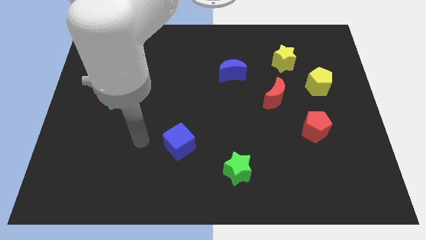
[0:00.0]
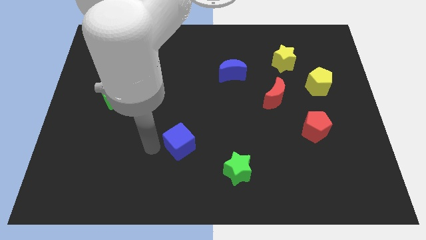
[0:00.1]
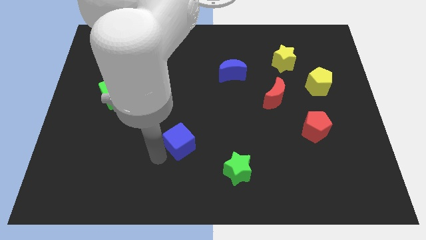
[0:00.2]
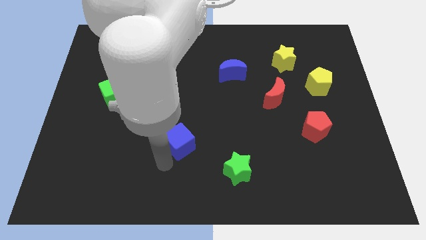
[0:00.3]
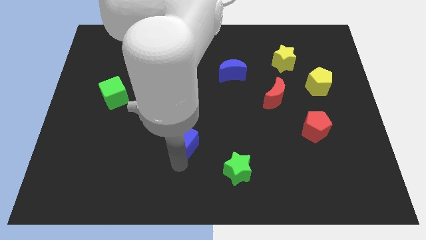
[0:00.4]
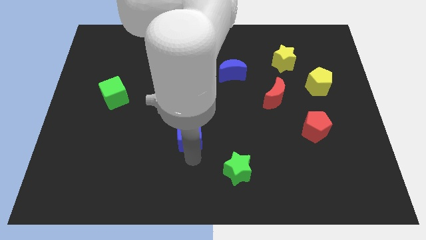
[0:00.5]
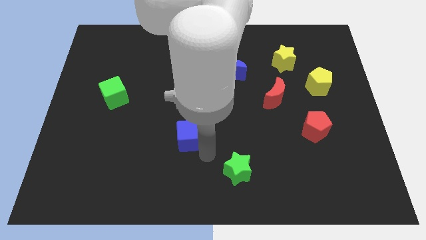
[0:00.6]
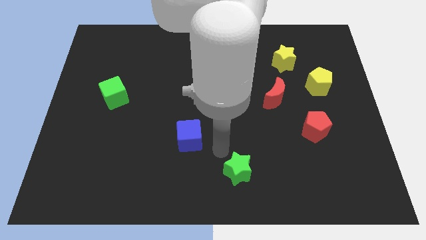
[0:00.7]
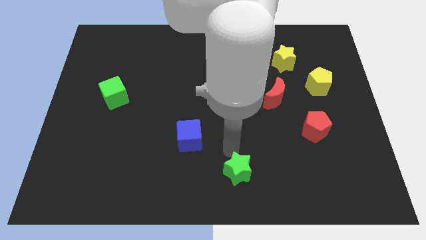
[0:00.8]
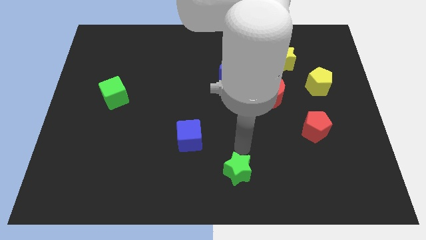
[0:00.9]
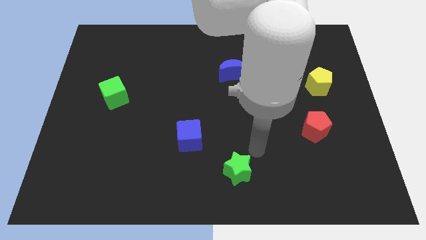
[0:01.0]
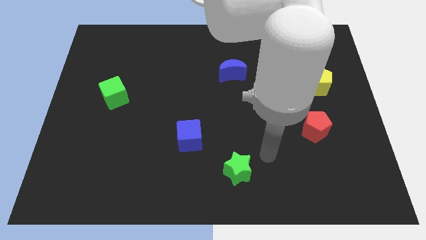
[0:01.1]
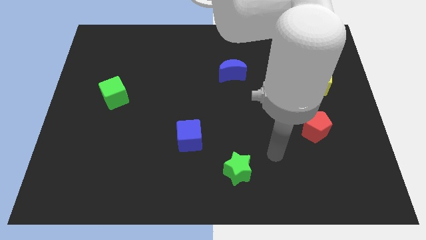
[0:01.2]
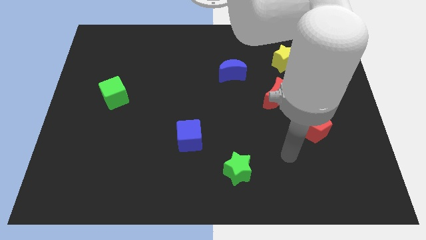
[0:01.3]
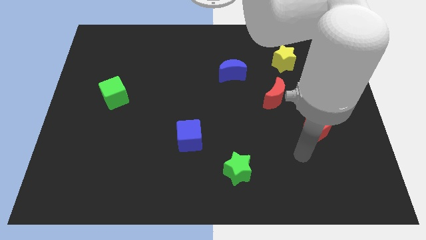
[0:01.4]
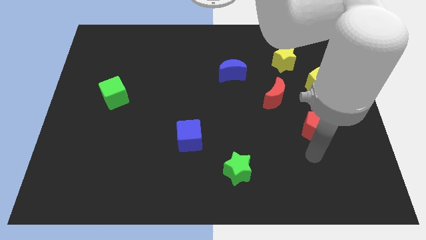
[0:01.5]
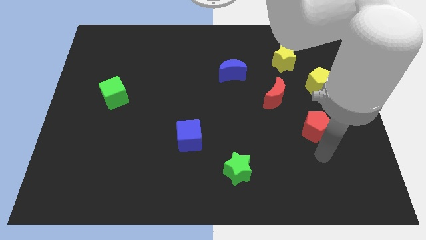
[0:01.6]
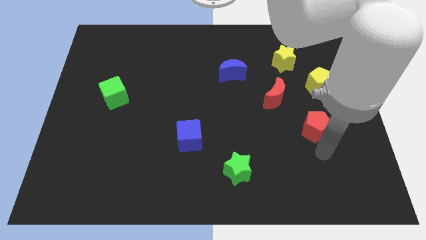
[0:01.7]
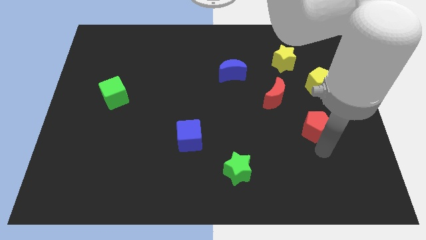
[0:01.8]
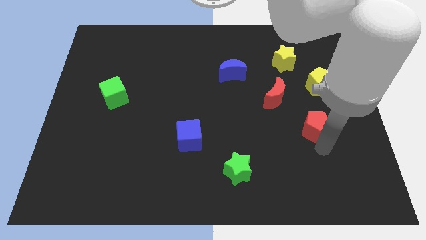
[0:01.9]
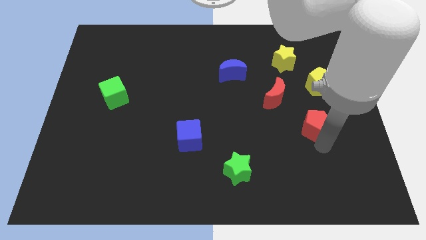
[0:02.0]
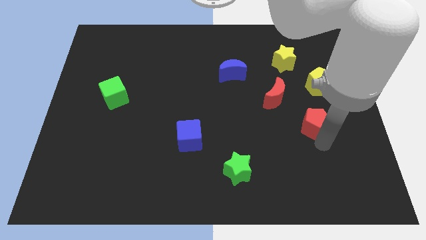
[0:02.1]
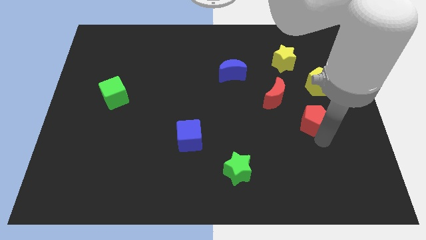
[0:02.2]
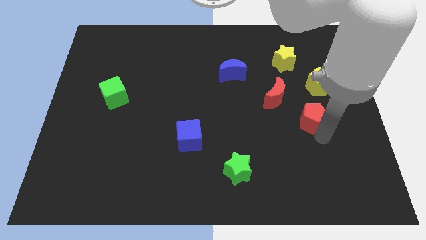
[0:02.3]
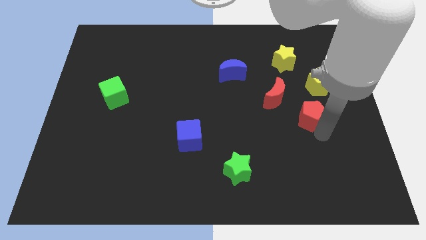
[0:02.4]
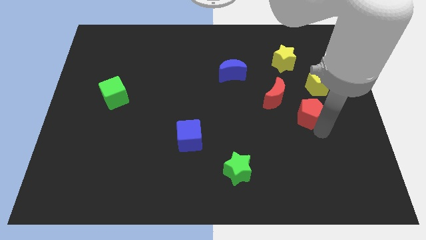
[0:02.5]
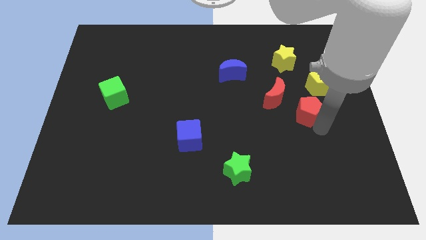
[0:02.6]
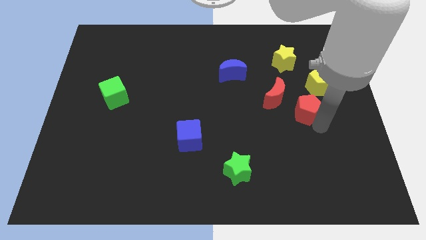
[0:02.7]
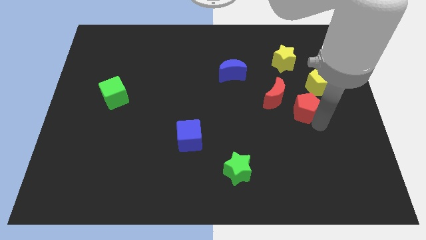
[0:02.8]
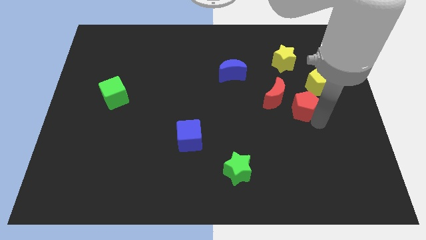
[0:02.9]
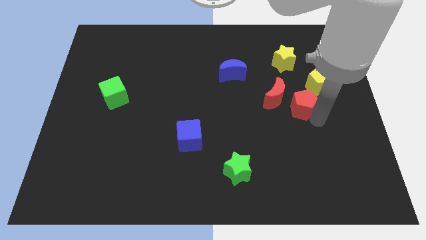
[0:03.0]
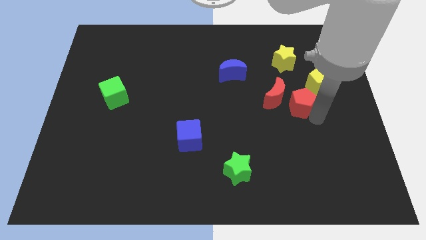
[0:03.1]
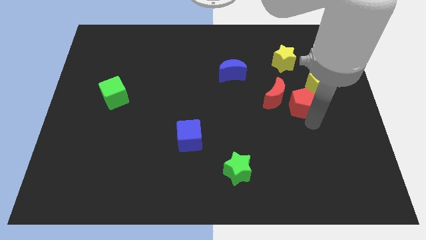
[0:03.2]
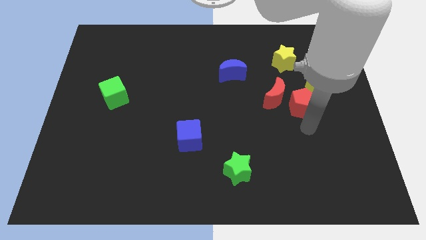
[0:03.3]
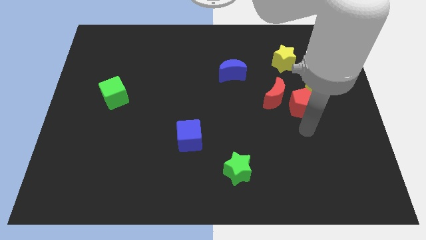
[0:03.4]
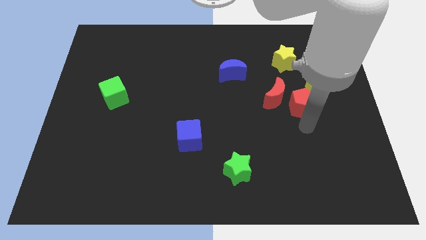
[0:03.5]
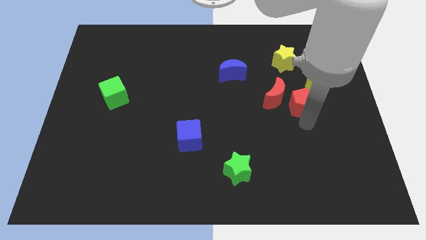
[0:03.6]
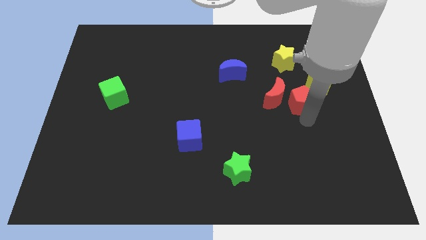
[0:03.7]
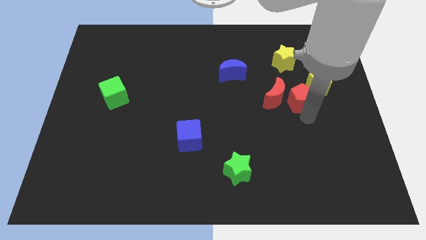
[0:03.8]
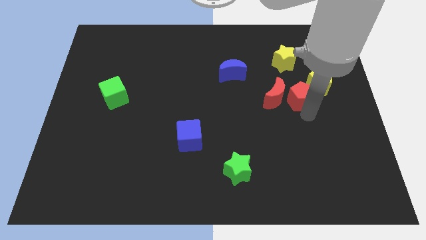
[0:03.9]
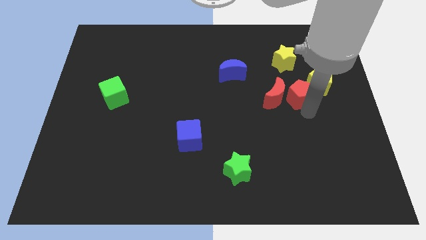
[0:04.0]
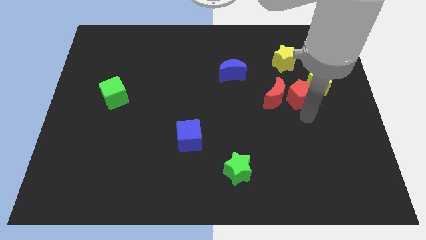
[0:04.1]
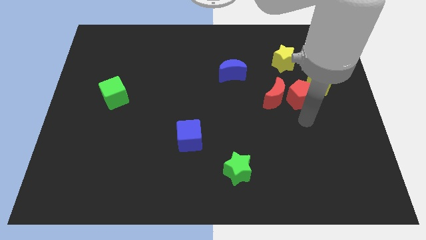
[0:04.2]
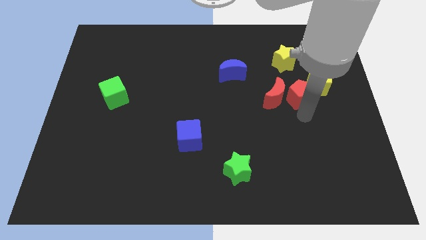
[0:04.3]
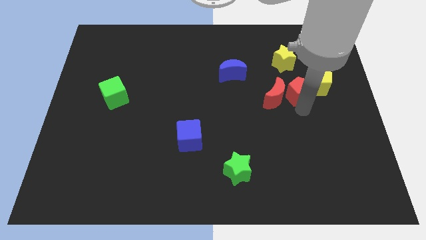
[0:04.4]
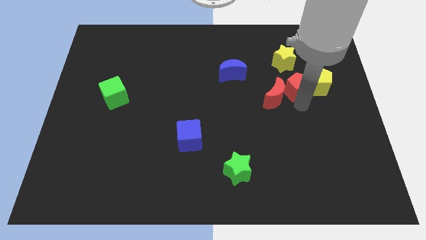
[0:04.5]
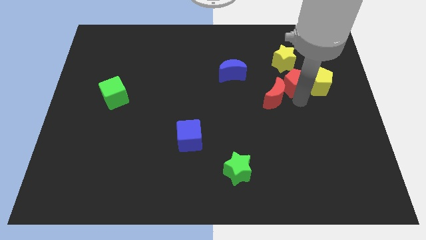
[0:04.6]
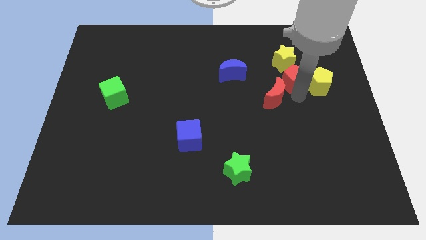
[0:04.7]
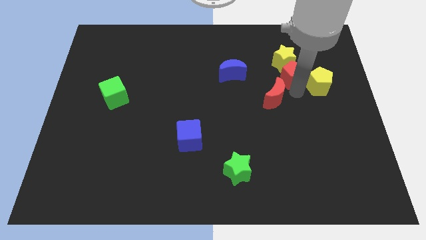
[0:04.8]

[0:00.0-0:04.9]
slide the red pentagon towards the yellow star

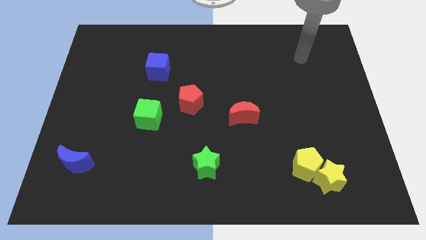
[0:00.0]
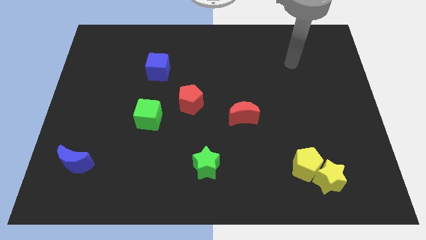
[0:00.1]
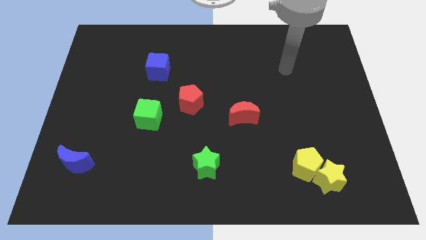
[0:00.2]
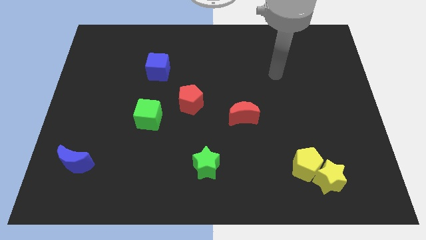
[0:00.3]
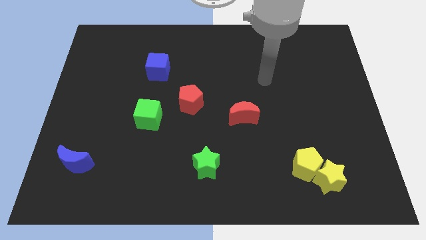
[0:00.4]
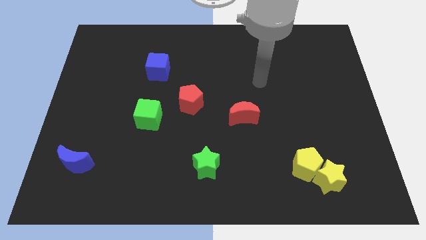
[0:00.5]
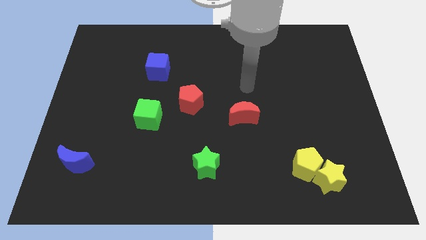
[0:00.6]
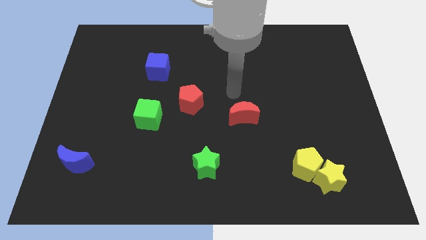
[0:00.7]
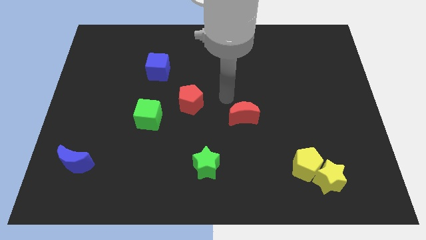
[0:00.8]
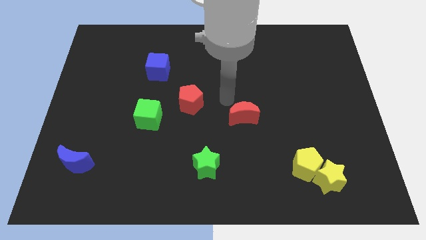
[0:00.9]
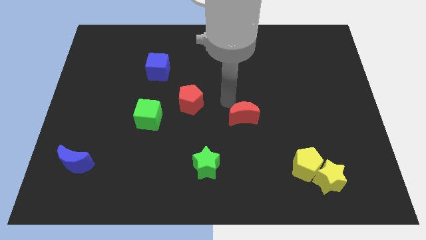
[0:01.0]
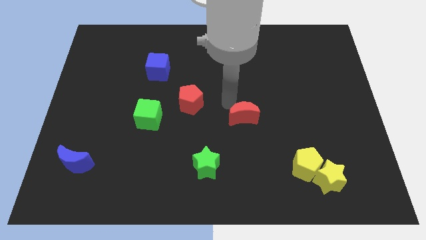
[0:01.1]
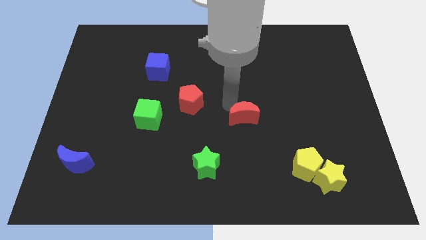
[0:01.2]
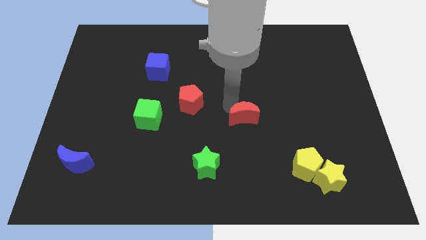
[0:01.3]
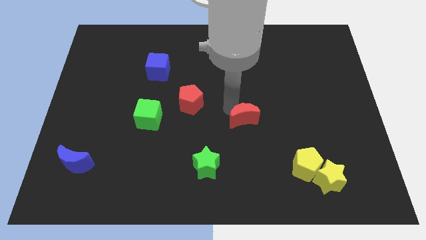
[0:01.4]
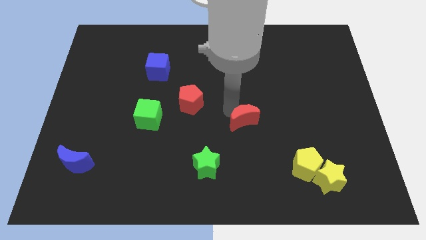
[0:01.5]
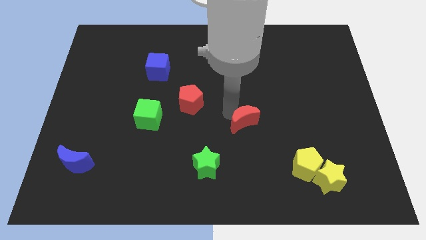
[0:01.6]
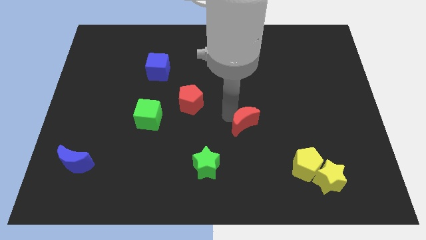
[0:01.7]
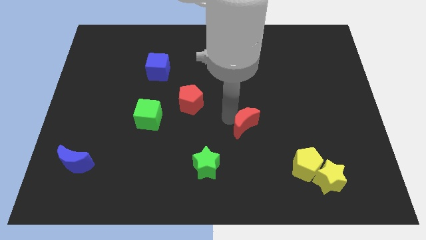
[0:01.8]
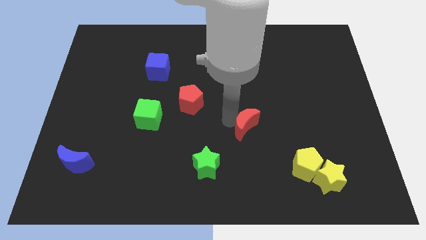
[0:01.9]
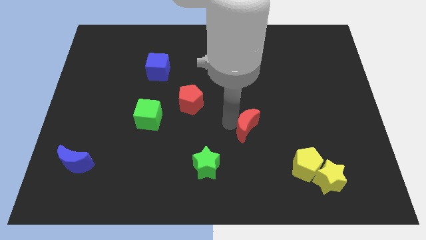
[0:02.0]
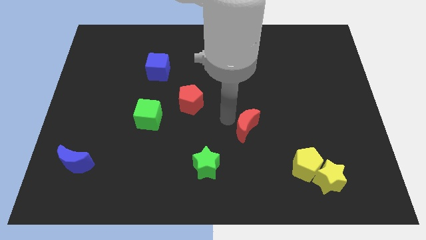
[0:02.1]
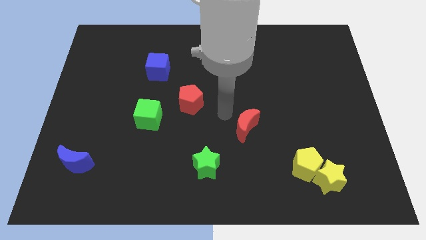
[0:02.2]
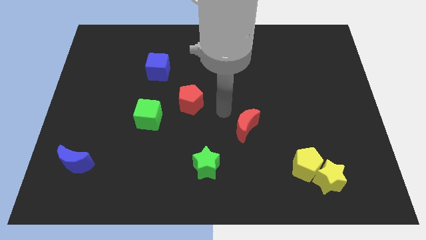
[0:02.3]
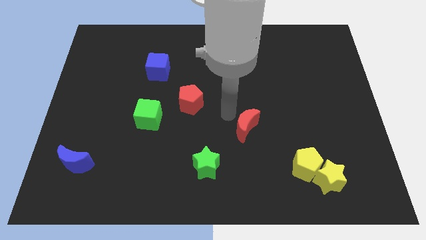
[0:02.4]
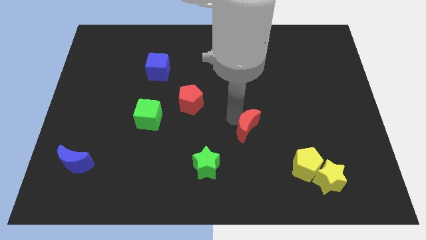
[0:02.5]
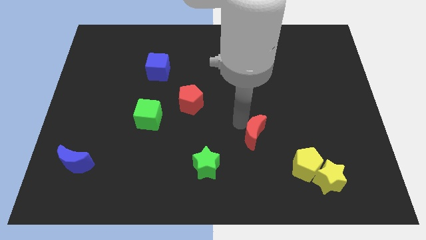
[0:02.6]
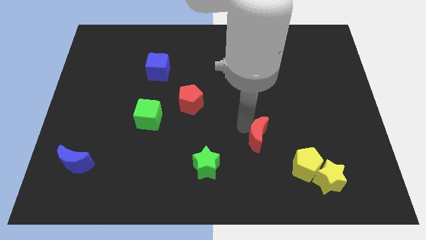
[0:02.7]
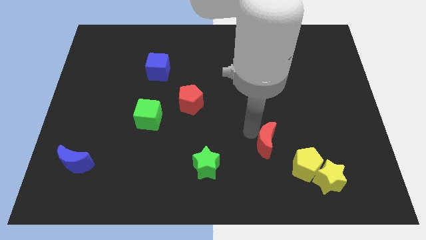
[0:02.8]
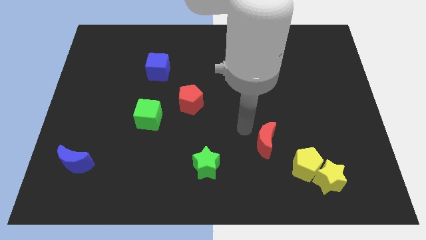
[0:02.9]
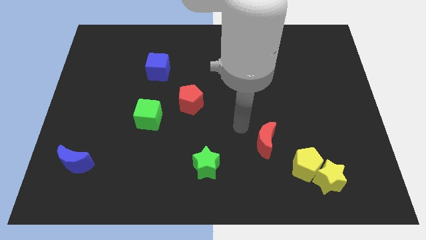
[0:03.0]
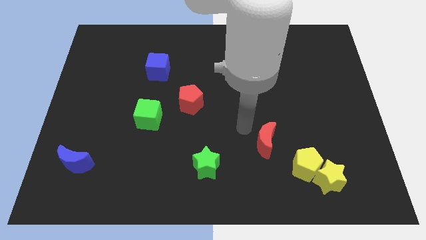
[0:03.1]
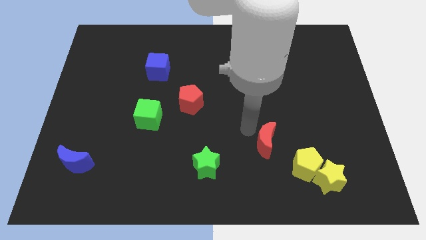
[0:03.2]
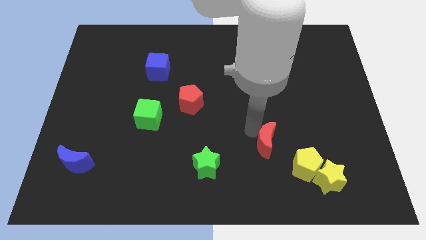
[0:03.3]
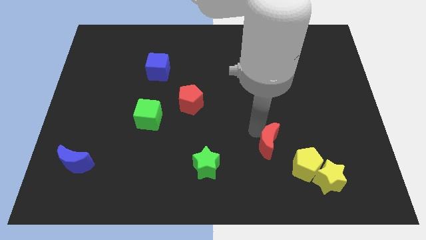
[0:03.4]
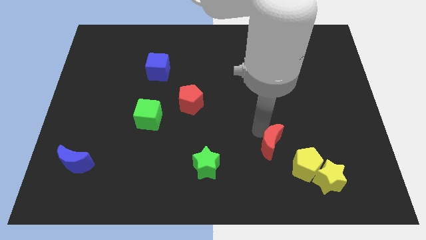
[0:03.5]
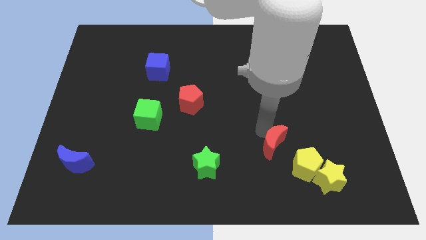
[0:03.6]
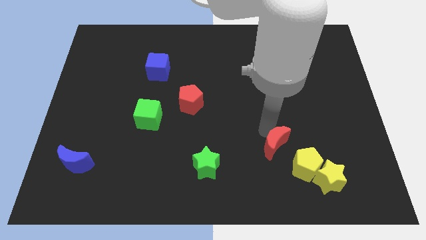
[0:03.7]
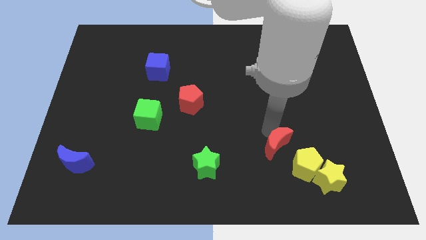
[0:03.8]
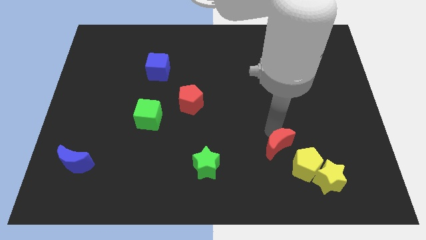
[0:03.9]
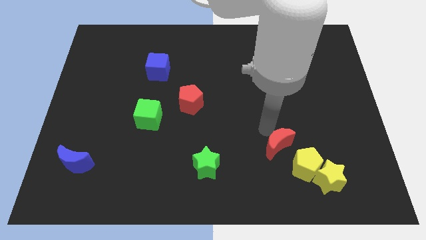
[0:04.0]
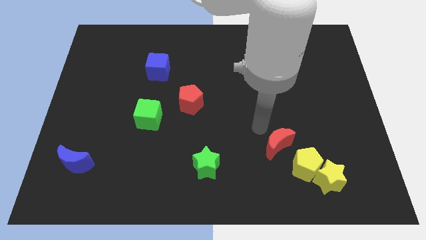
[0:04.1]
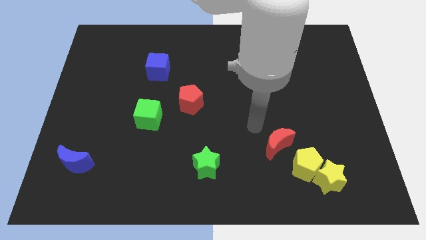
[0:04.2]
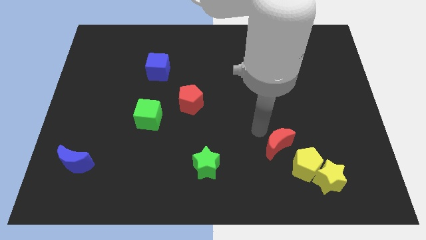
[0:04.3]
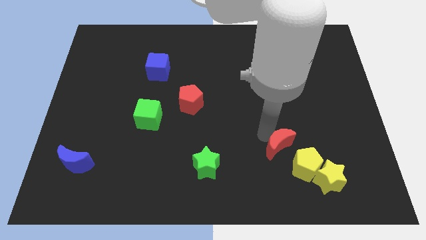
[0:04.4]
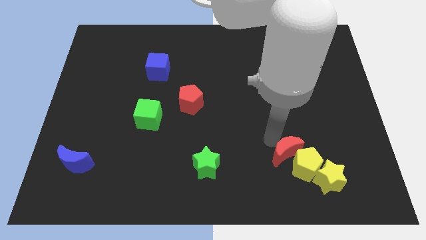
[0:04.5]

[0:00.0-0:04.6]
move the red moon close to the yellow pentagon
